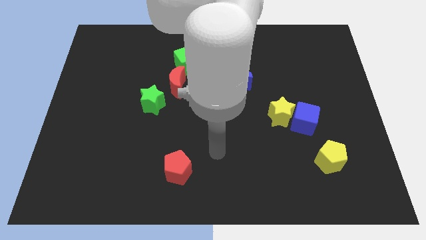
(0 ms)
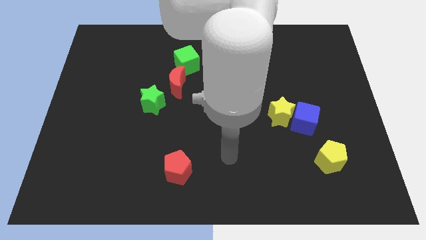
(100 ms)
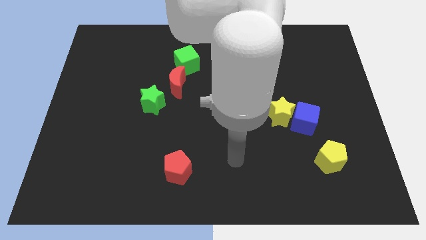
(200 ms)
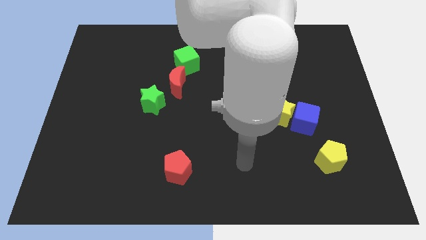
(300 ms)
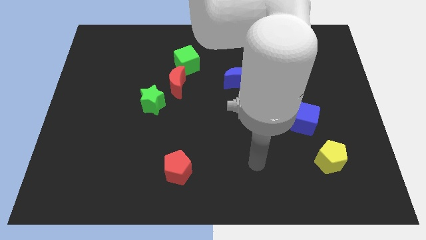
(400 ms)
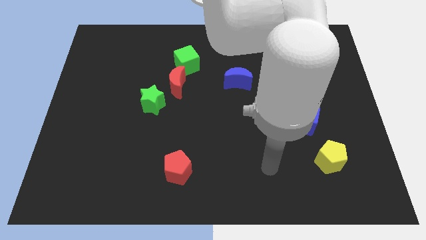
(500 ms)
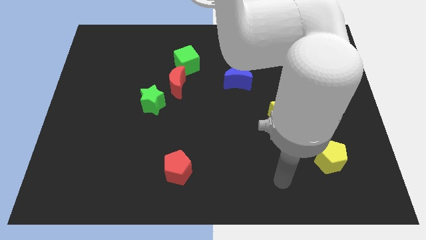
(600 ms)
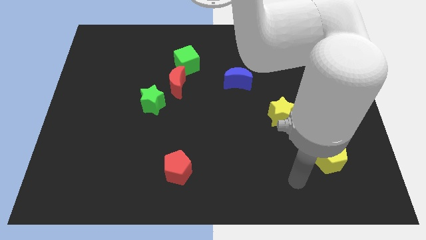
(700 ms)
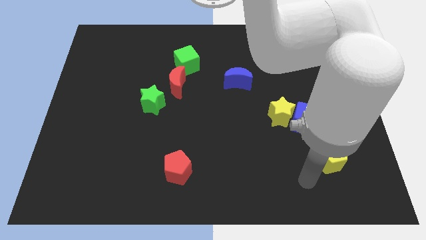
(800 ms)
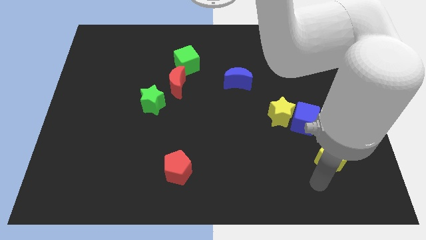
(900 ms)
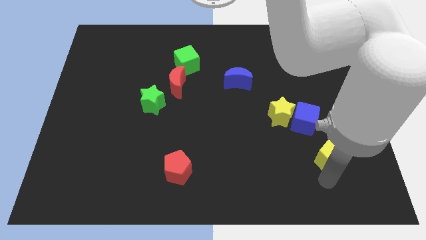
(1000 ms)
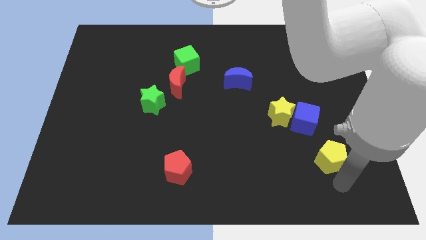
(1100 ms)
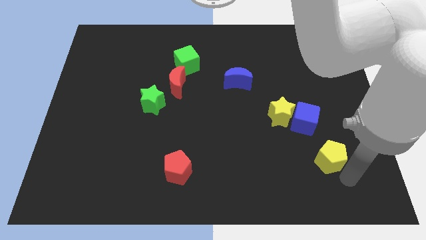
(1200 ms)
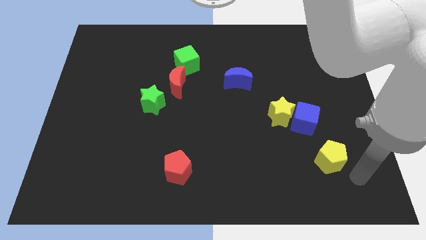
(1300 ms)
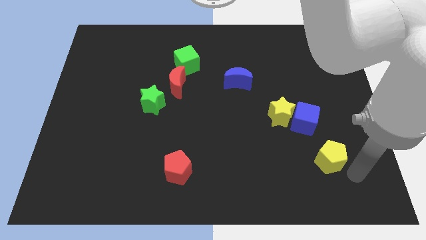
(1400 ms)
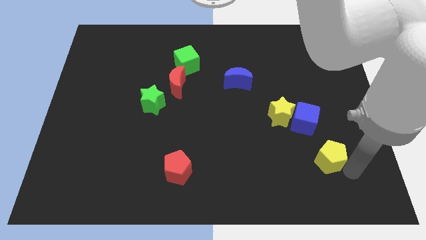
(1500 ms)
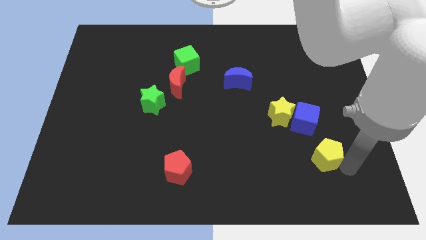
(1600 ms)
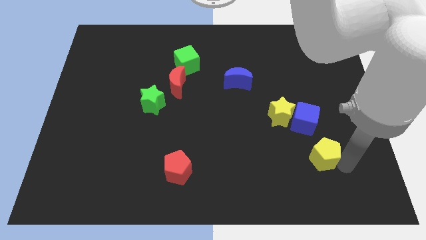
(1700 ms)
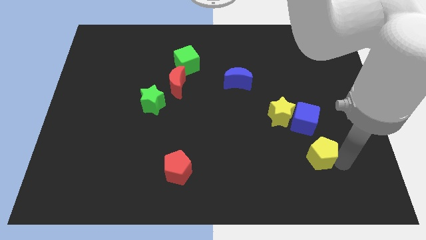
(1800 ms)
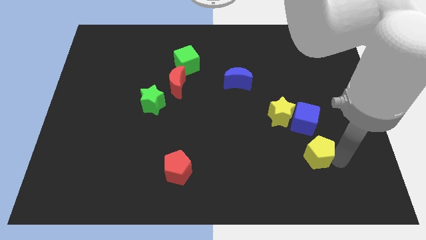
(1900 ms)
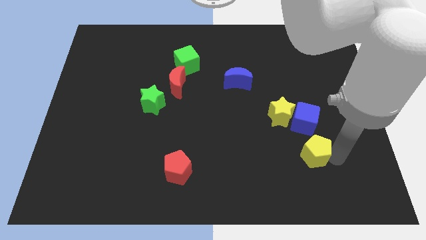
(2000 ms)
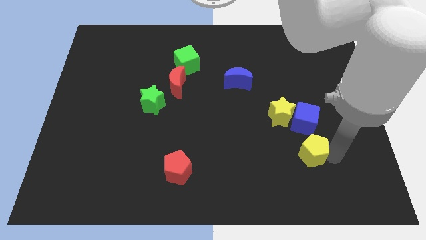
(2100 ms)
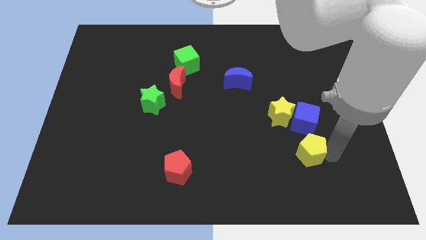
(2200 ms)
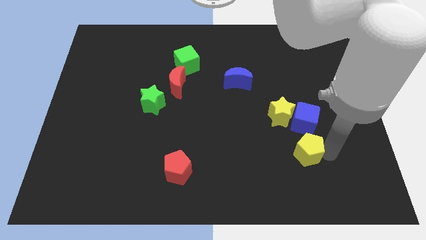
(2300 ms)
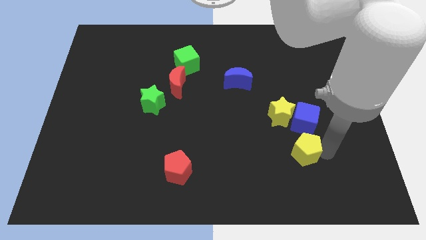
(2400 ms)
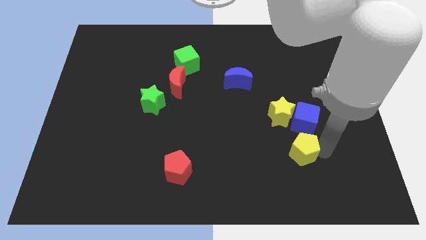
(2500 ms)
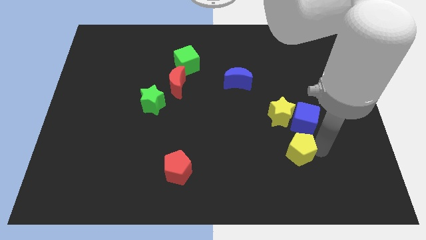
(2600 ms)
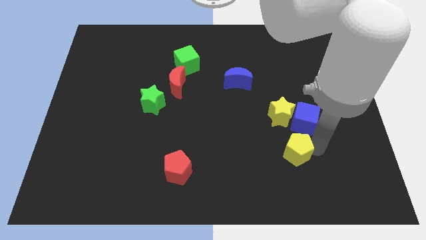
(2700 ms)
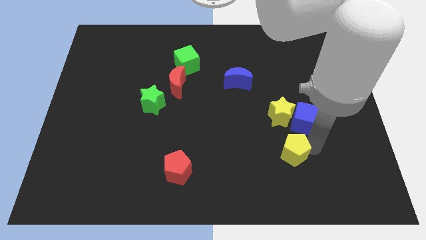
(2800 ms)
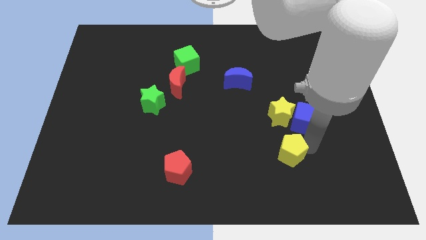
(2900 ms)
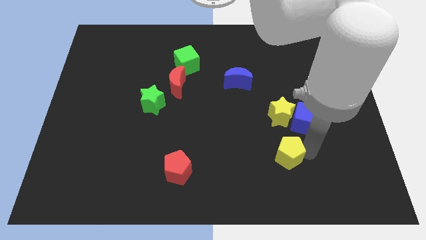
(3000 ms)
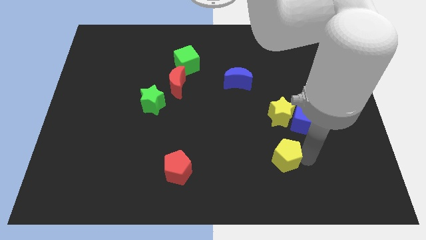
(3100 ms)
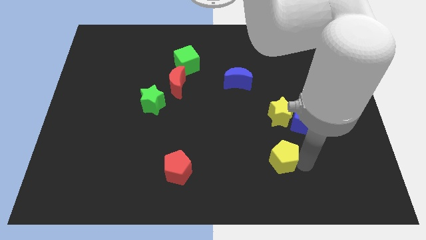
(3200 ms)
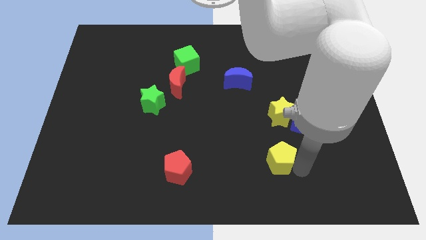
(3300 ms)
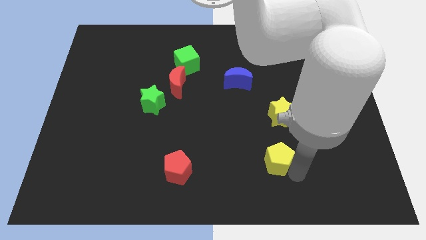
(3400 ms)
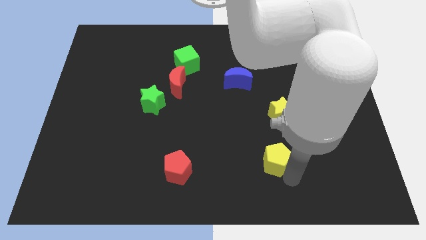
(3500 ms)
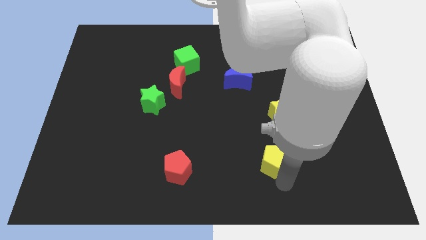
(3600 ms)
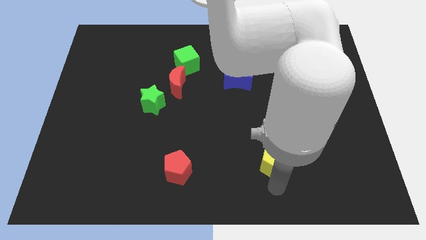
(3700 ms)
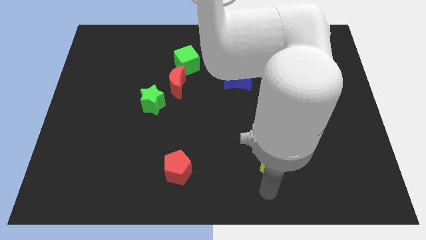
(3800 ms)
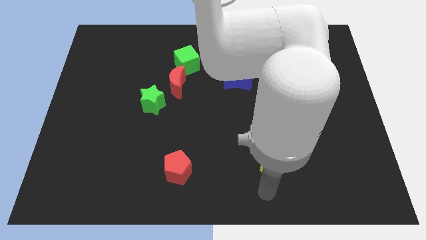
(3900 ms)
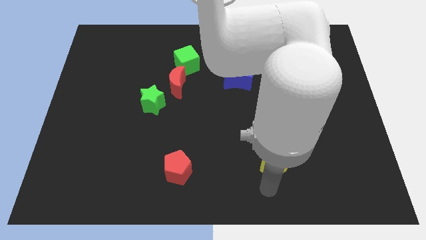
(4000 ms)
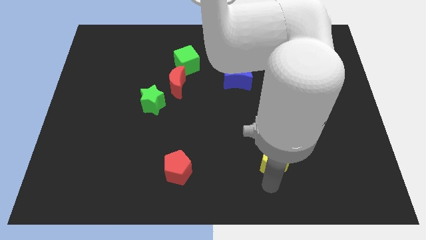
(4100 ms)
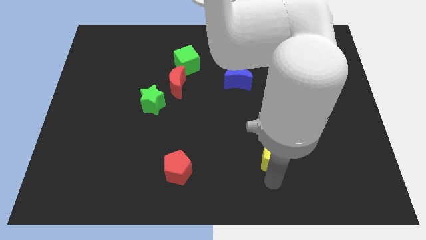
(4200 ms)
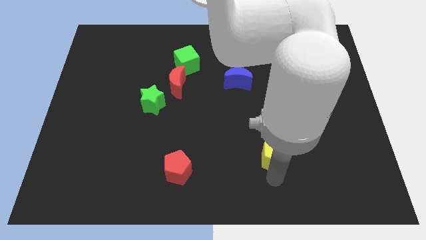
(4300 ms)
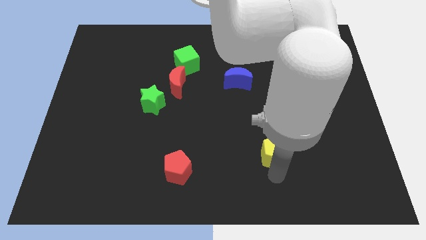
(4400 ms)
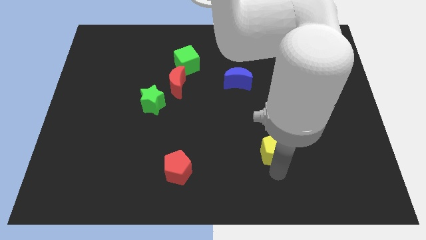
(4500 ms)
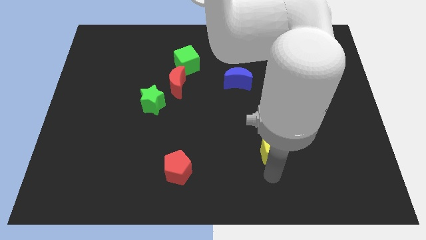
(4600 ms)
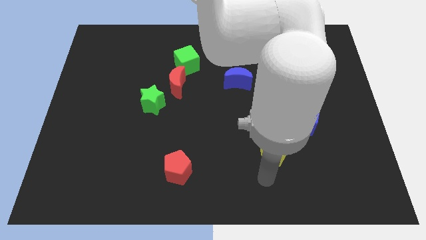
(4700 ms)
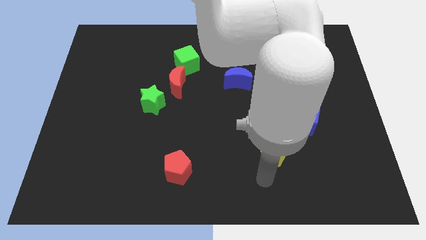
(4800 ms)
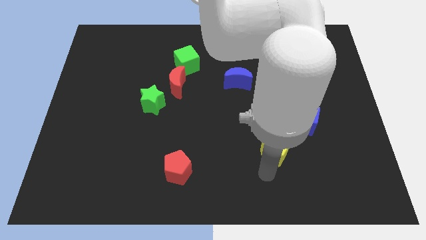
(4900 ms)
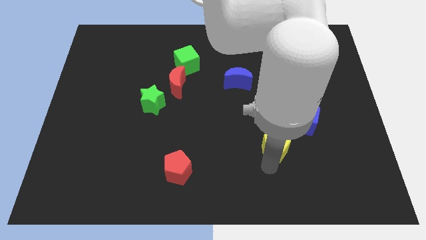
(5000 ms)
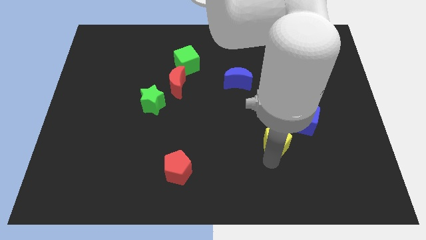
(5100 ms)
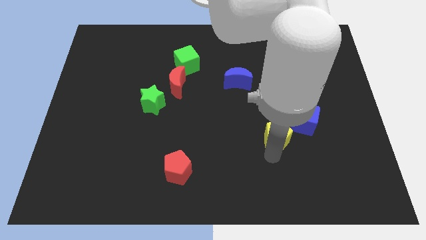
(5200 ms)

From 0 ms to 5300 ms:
put the yellow pentagon to the left side of the blue cube

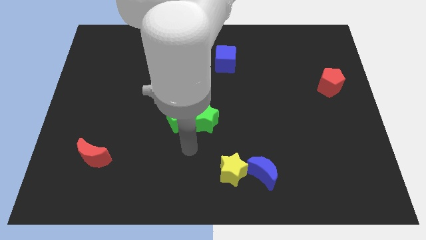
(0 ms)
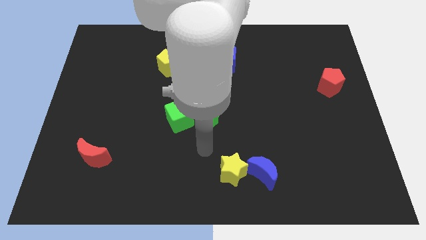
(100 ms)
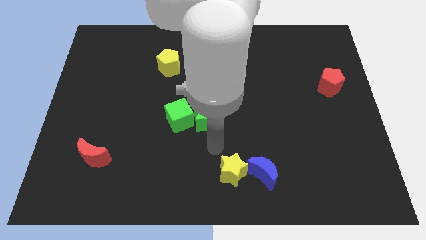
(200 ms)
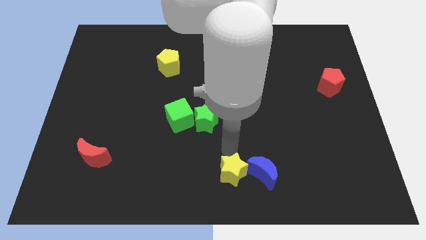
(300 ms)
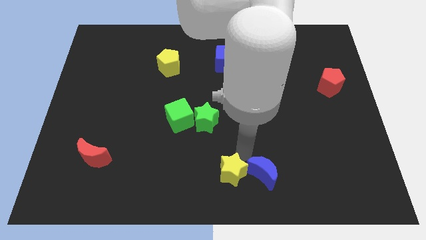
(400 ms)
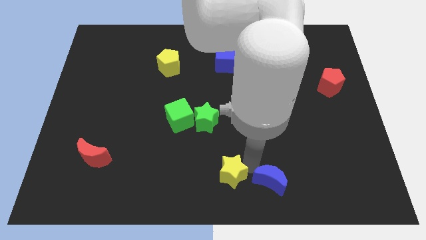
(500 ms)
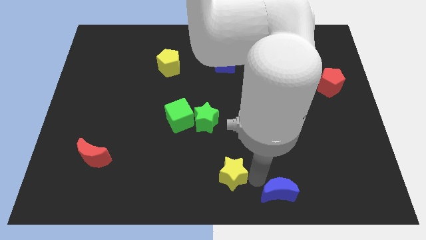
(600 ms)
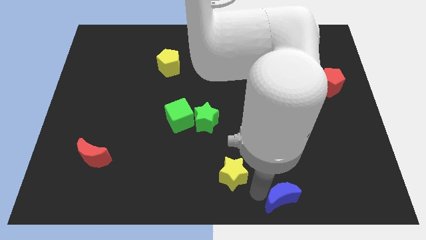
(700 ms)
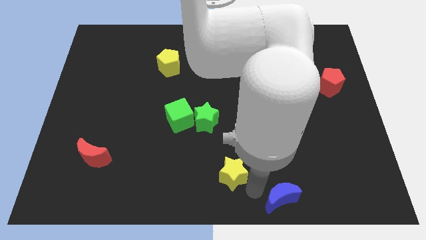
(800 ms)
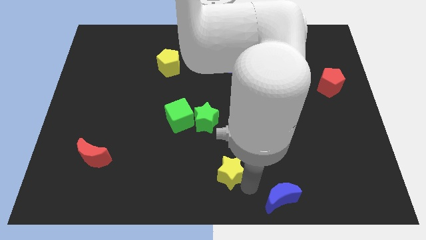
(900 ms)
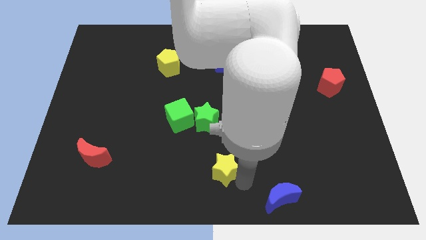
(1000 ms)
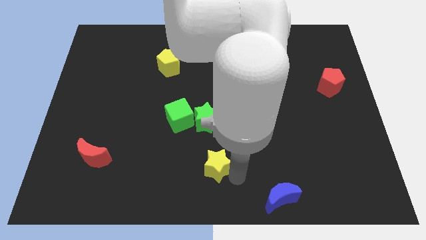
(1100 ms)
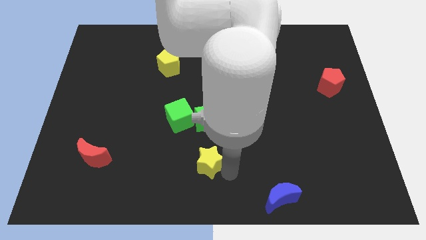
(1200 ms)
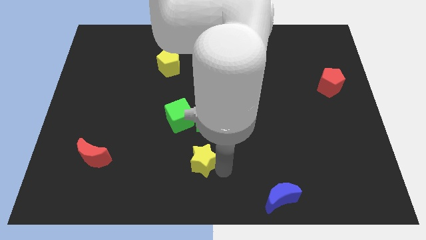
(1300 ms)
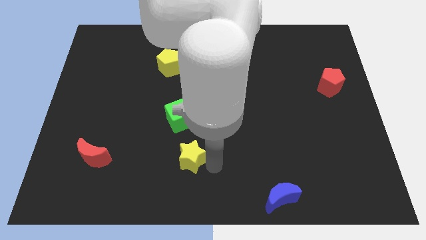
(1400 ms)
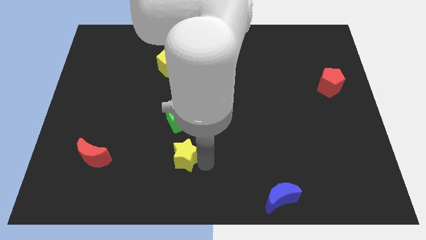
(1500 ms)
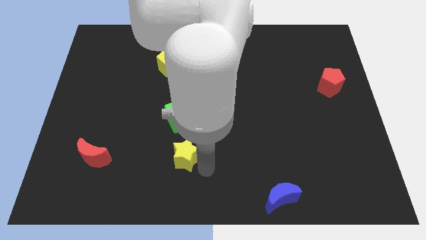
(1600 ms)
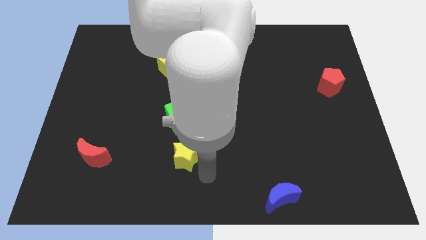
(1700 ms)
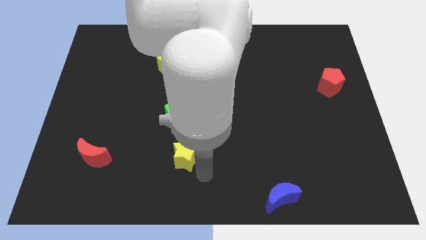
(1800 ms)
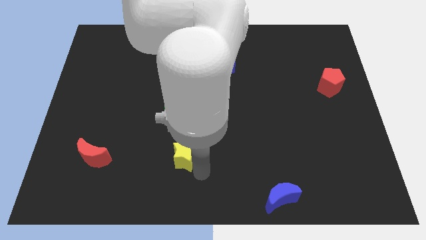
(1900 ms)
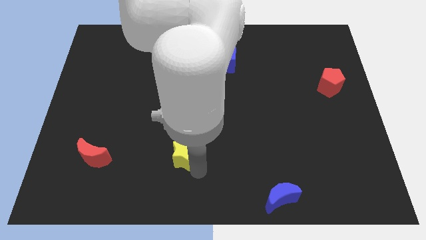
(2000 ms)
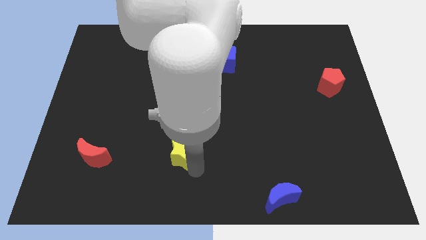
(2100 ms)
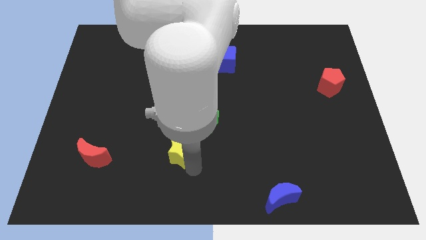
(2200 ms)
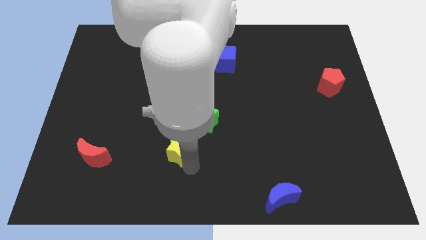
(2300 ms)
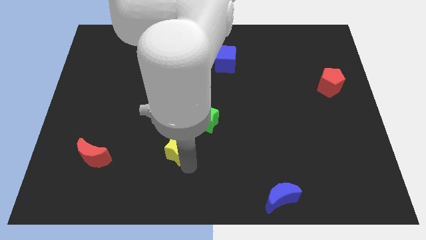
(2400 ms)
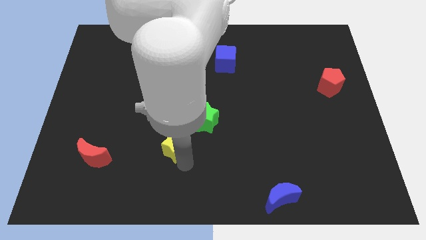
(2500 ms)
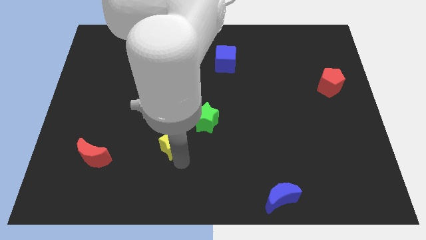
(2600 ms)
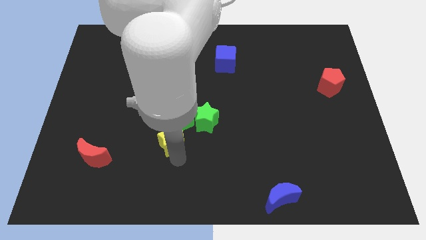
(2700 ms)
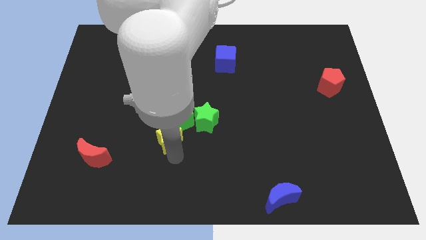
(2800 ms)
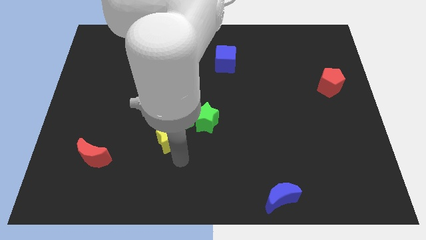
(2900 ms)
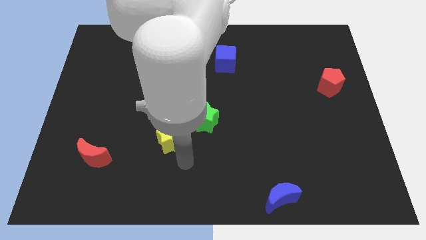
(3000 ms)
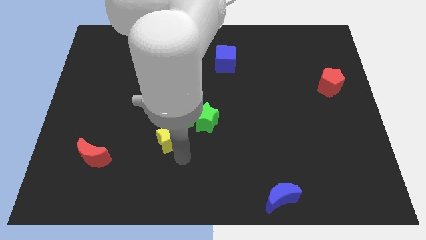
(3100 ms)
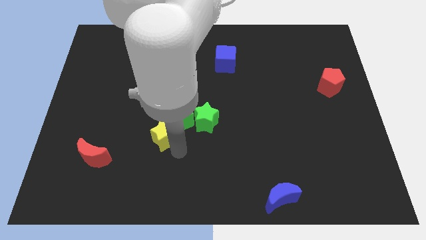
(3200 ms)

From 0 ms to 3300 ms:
push the yellow star just left of the green star
